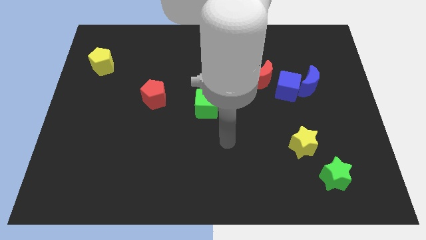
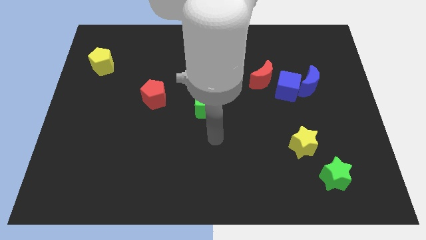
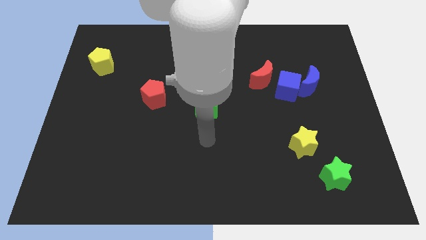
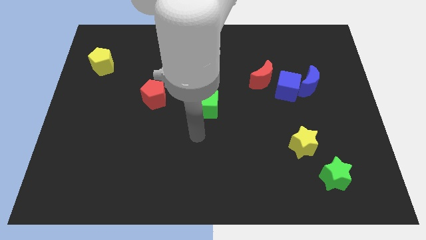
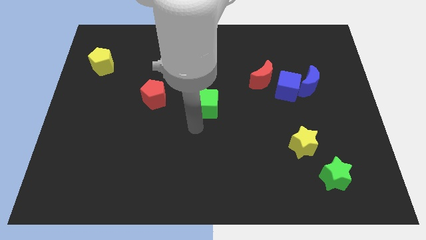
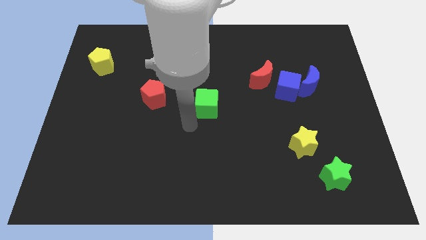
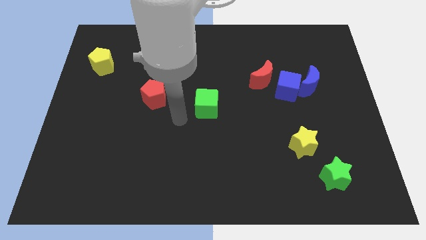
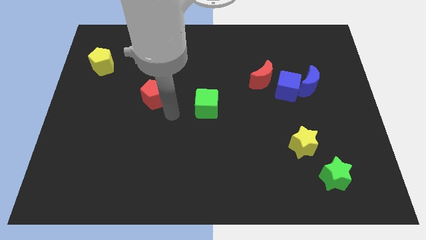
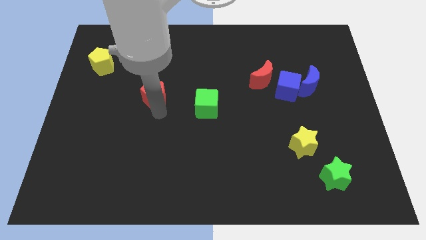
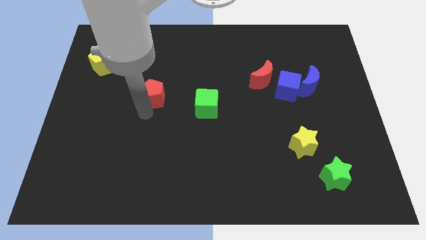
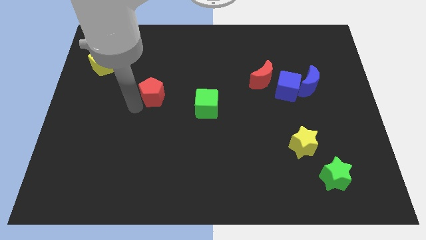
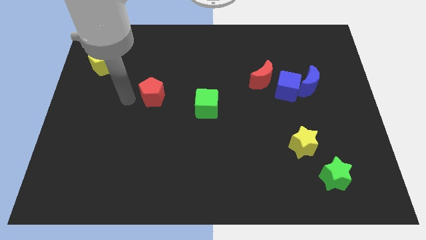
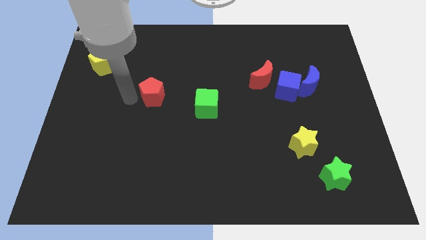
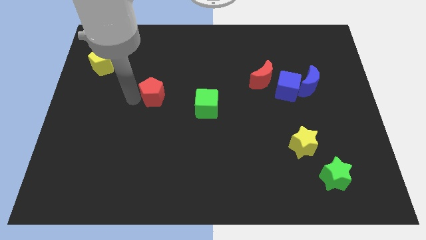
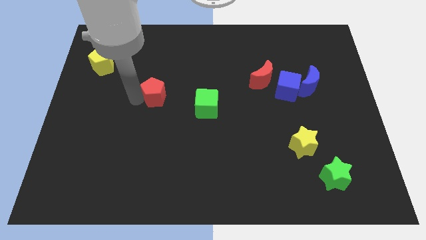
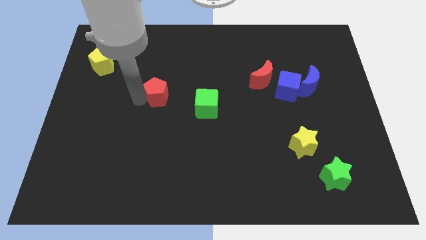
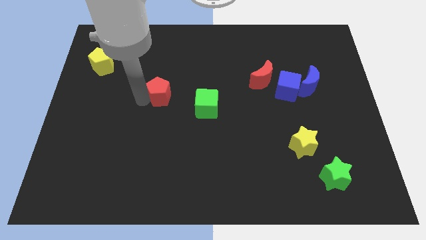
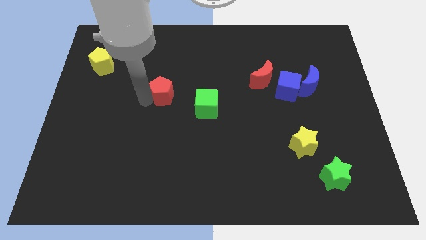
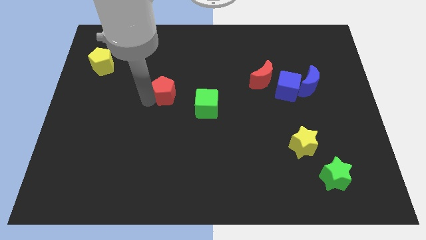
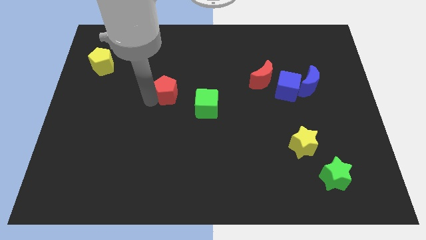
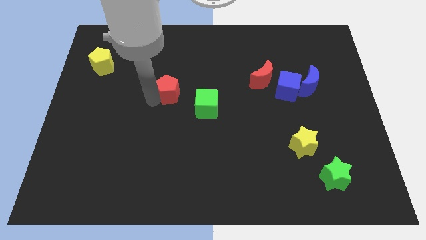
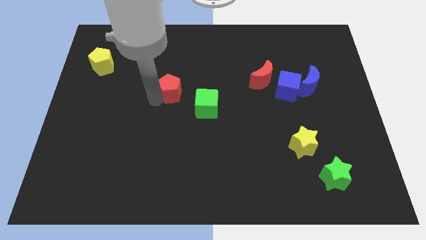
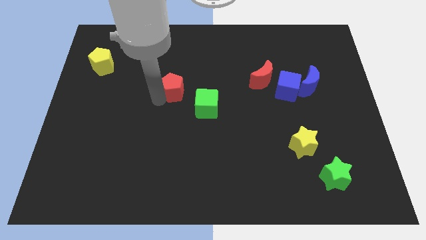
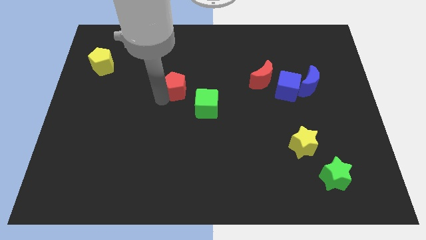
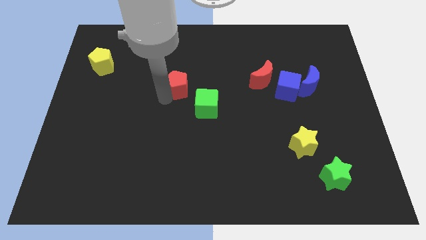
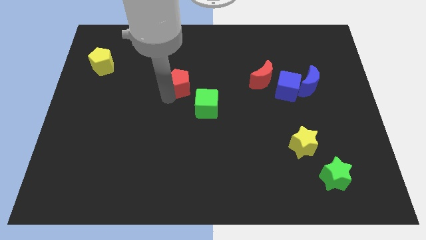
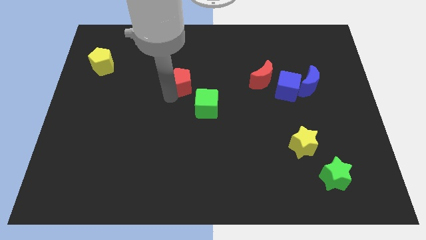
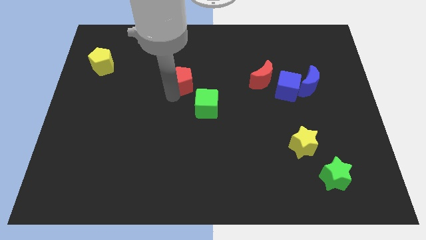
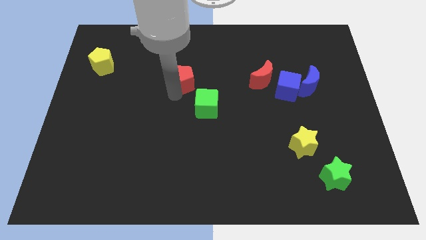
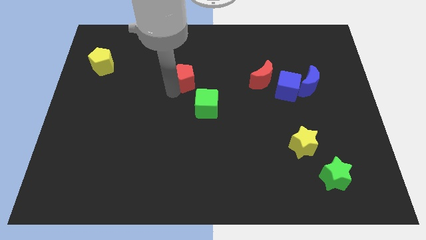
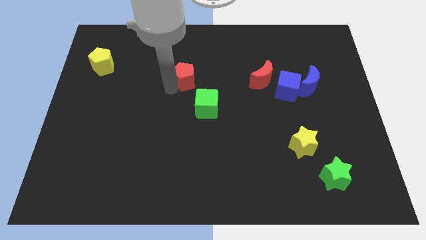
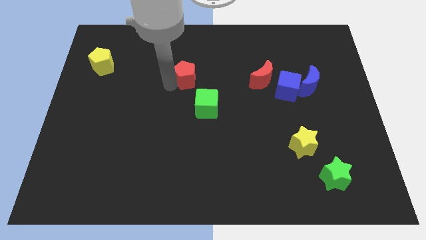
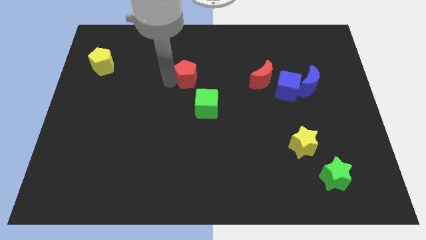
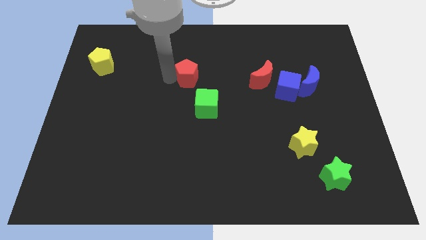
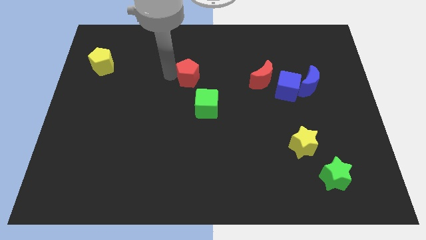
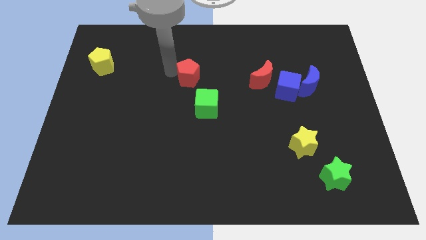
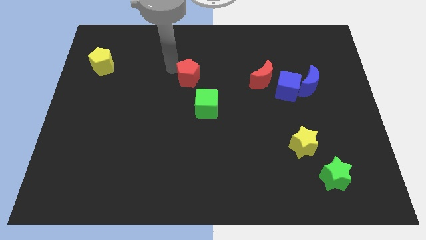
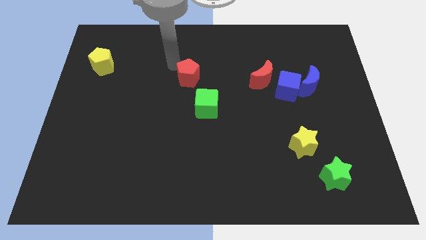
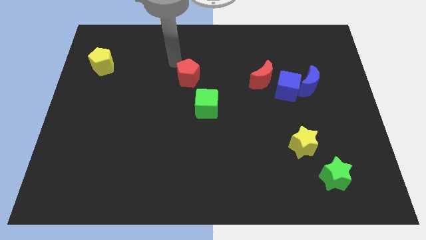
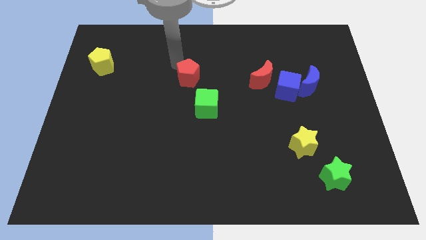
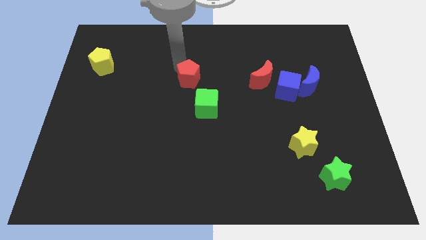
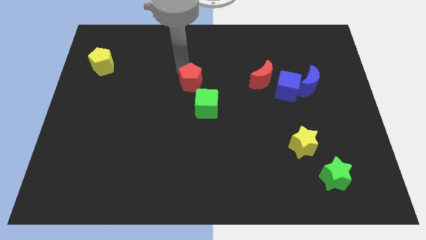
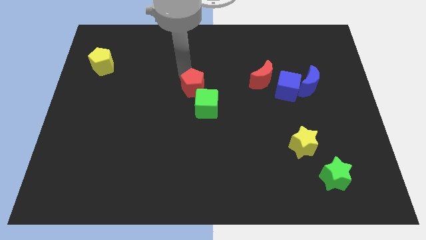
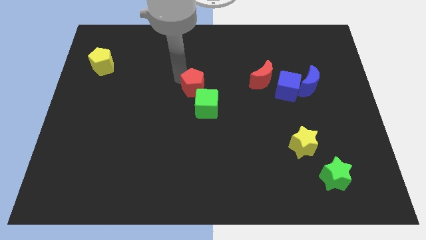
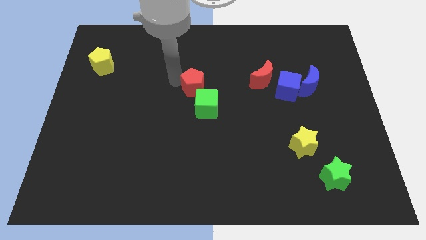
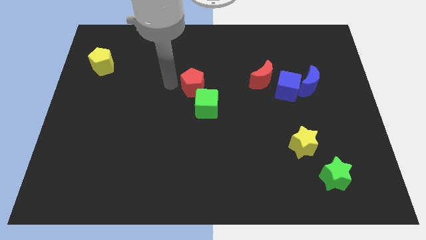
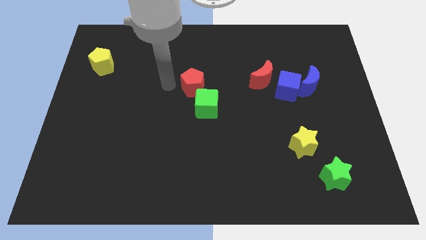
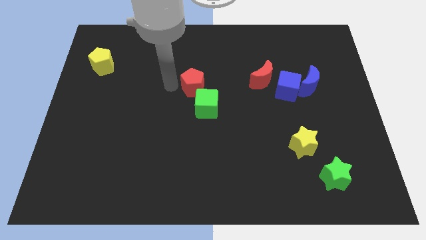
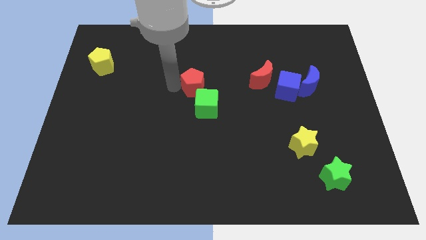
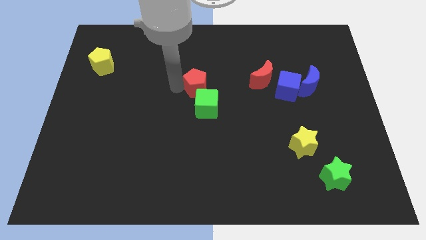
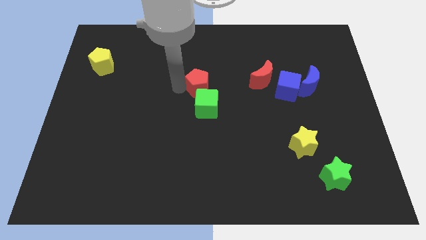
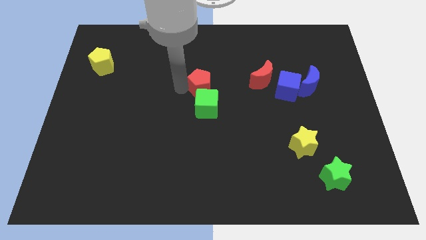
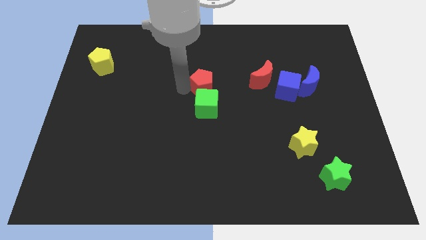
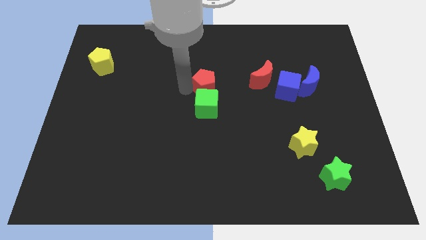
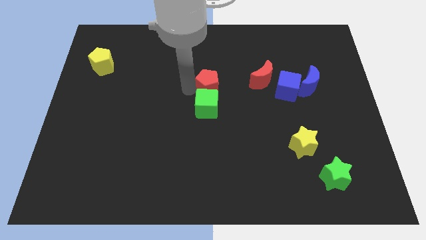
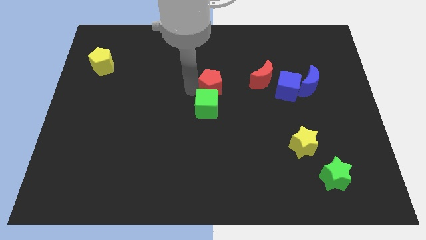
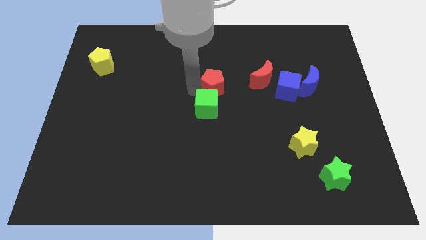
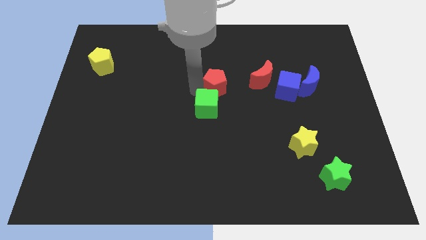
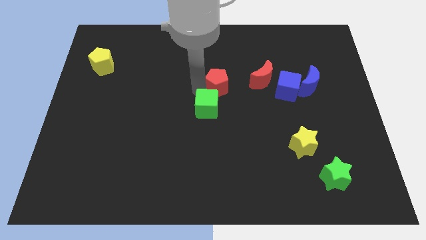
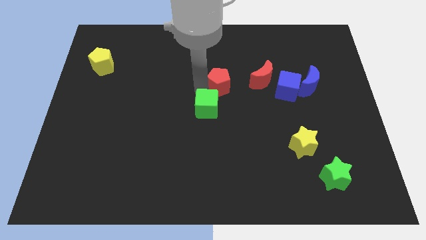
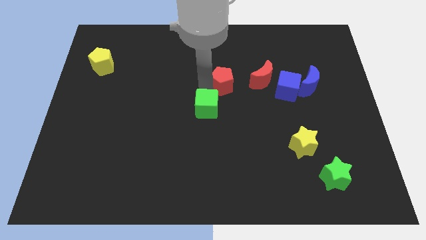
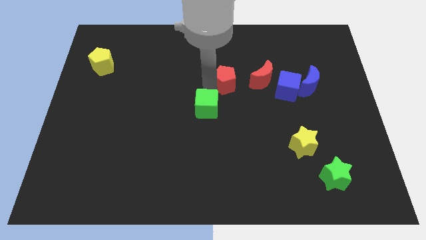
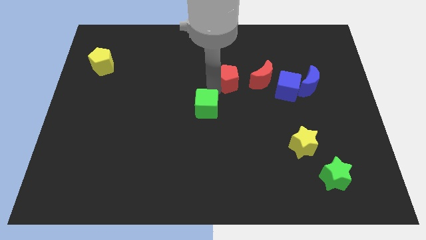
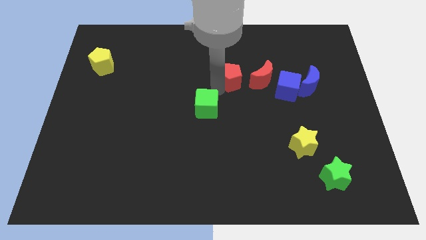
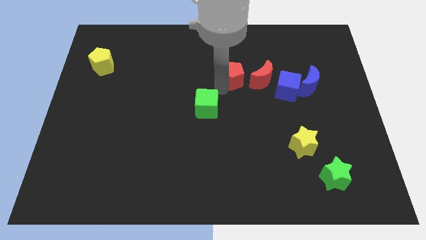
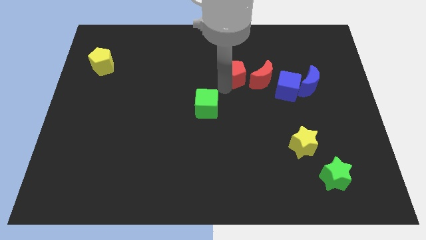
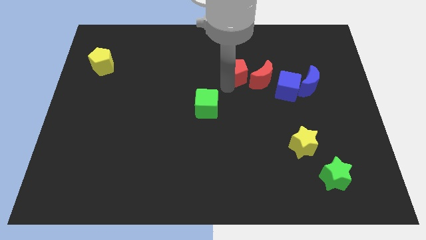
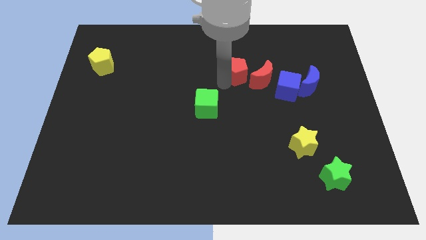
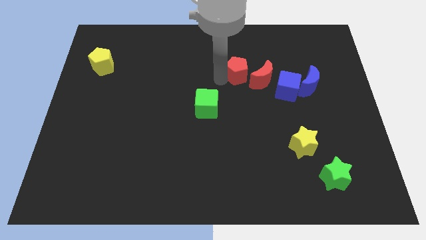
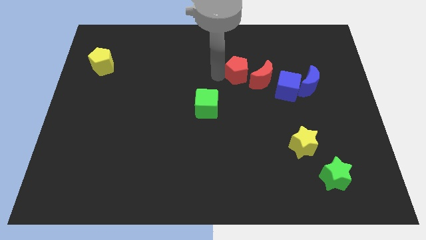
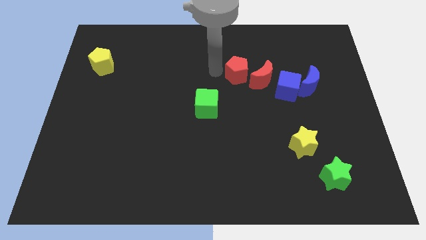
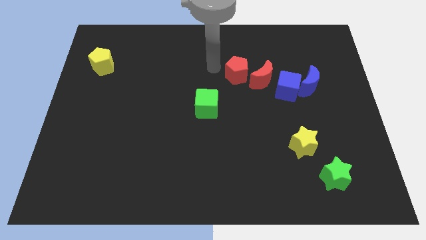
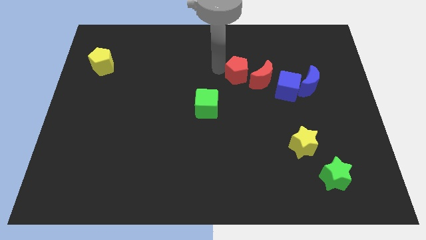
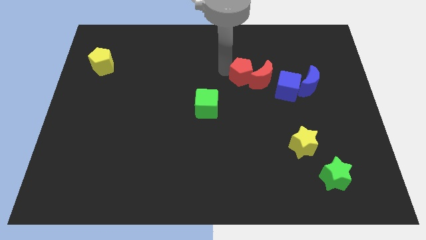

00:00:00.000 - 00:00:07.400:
put the red pentagon close to the red moon
